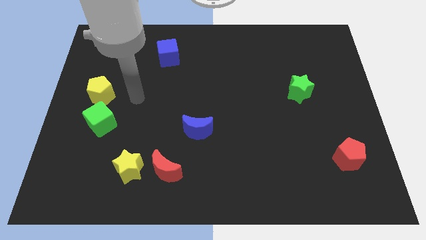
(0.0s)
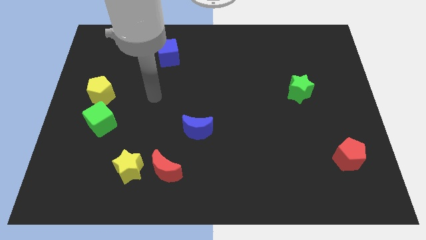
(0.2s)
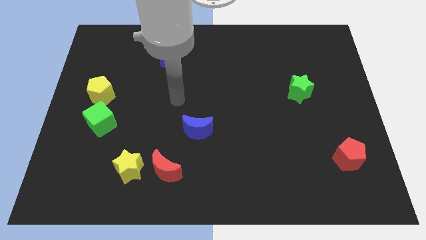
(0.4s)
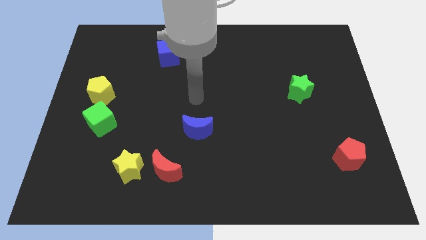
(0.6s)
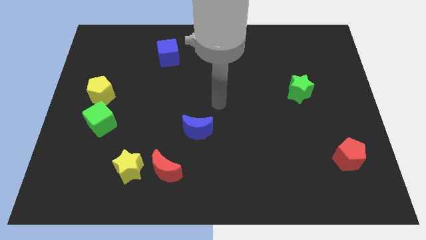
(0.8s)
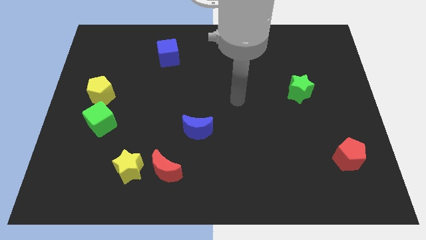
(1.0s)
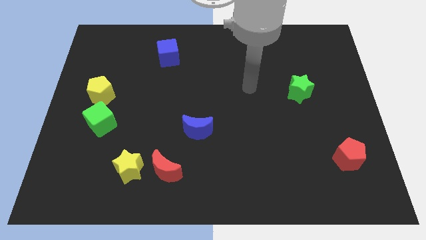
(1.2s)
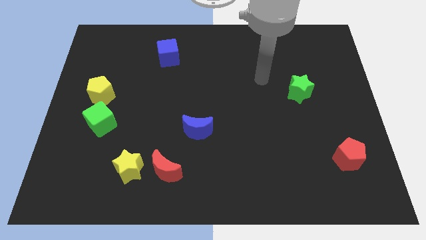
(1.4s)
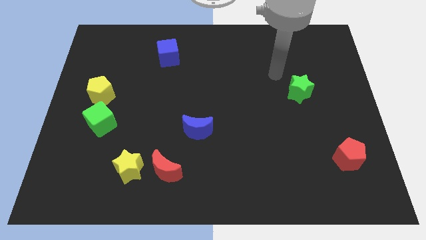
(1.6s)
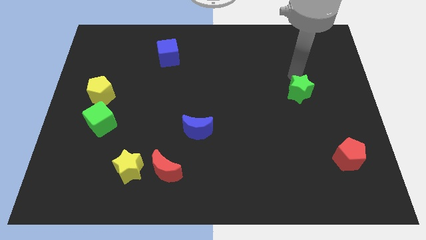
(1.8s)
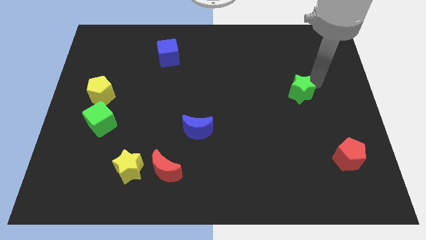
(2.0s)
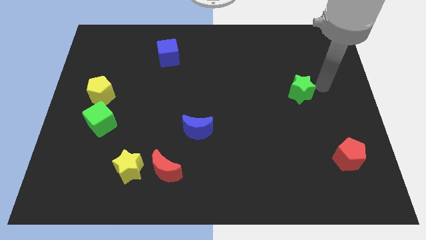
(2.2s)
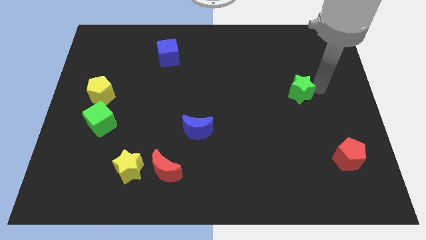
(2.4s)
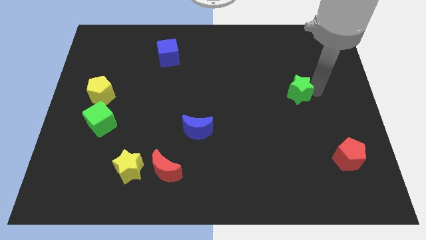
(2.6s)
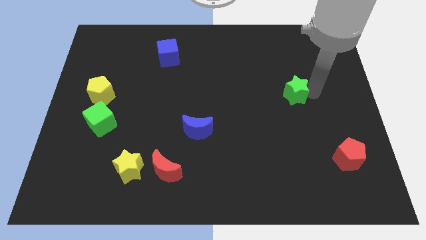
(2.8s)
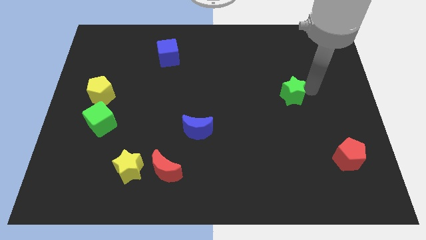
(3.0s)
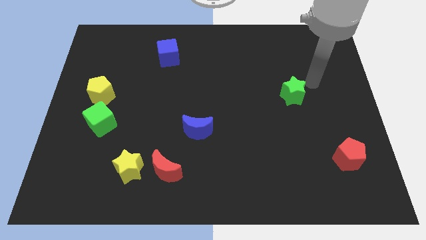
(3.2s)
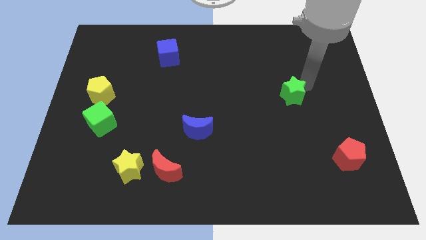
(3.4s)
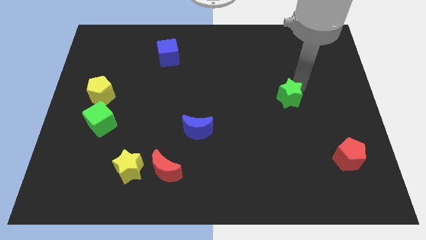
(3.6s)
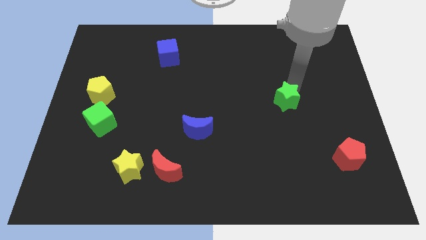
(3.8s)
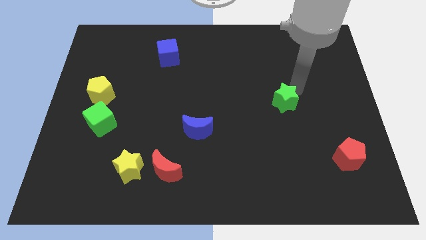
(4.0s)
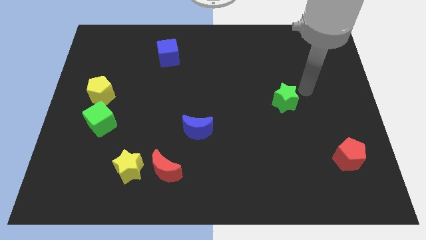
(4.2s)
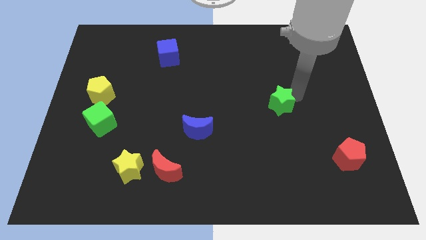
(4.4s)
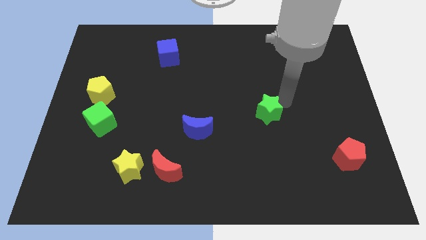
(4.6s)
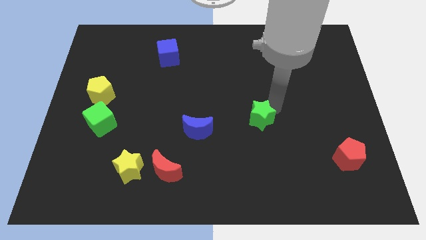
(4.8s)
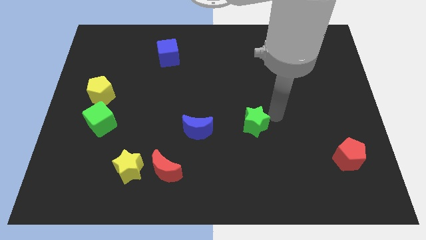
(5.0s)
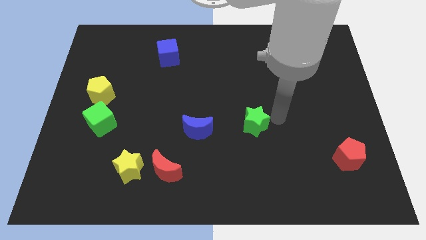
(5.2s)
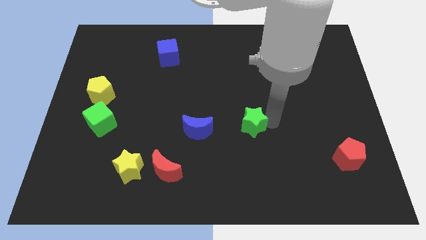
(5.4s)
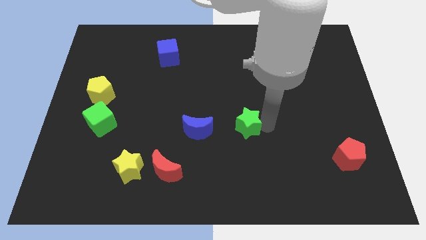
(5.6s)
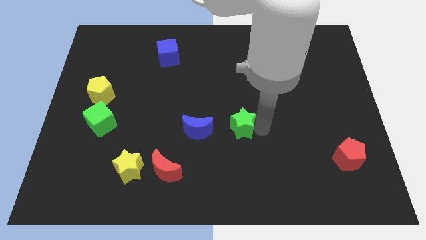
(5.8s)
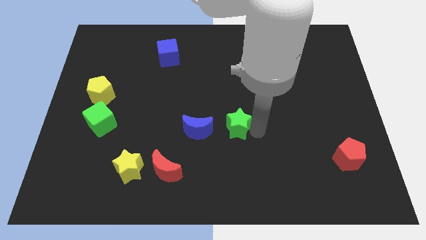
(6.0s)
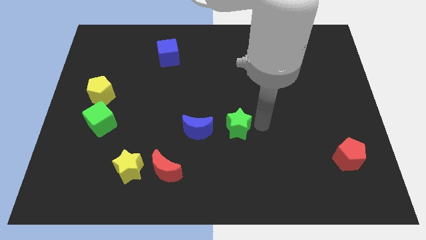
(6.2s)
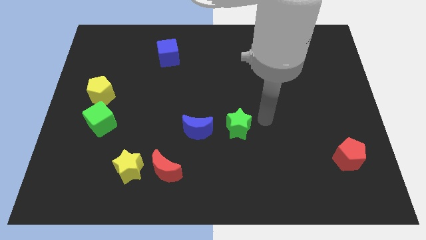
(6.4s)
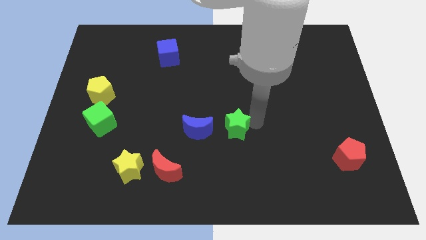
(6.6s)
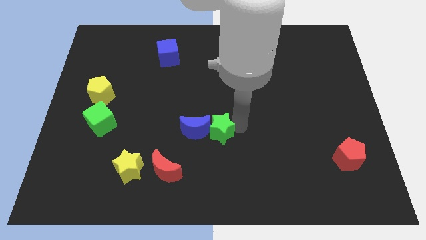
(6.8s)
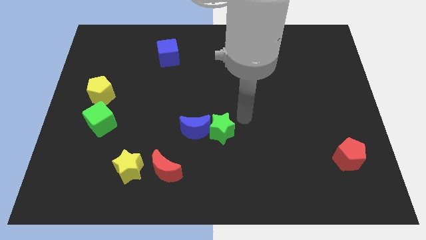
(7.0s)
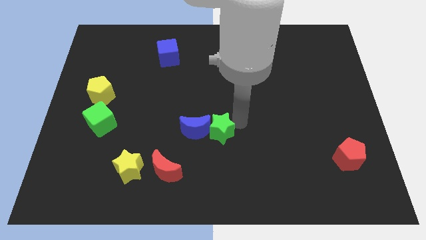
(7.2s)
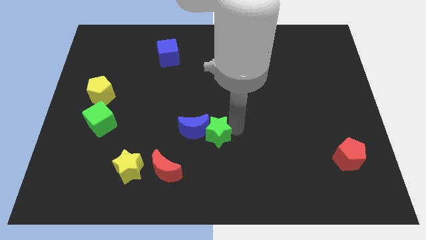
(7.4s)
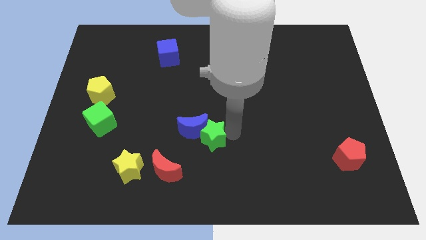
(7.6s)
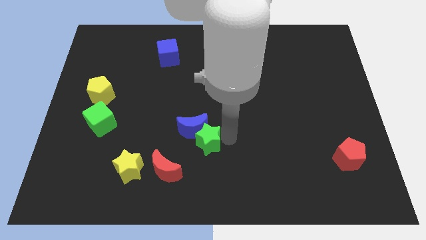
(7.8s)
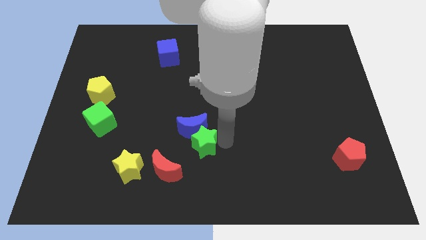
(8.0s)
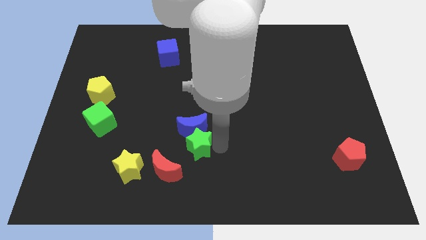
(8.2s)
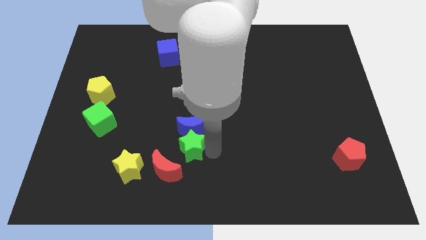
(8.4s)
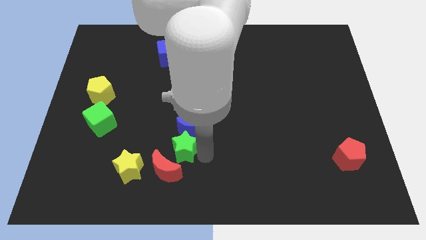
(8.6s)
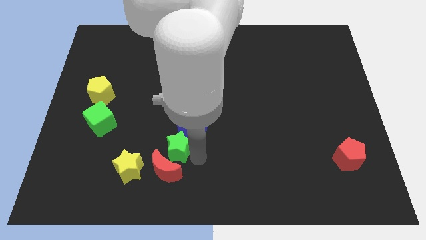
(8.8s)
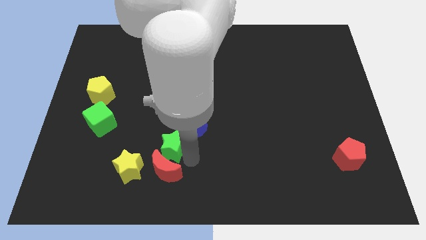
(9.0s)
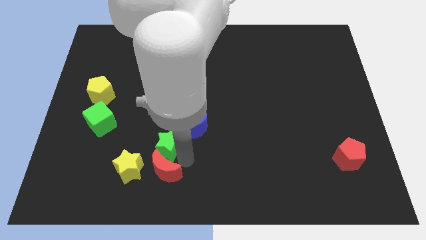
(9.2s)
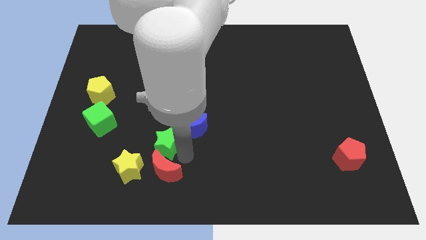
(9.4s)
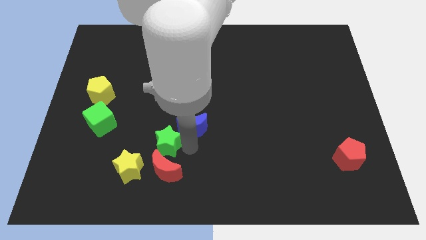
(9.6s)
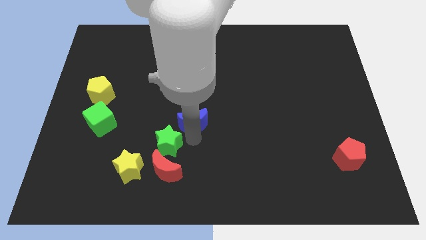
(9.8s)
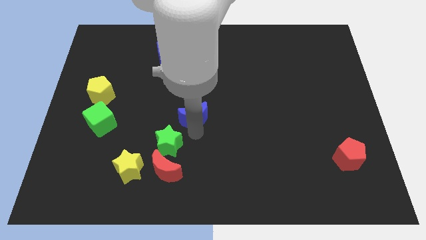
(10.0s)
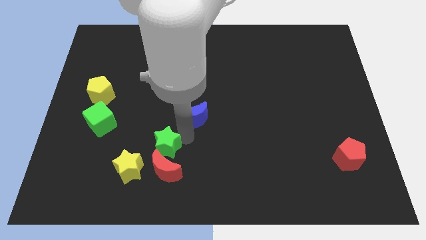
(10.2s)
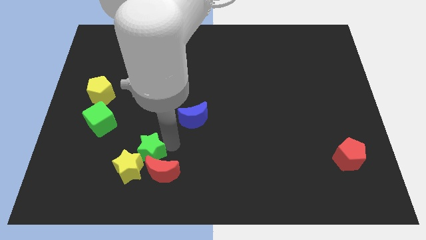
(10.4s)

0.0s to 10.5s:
put the green star close to the yellow star

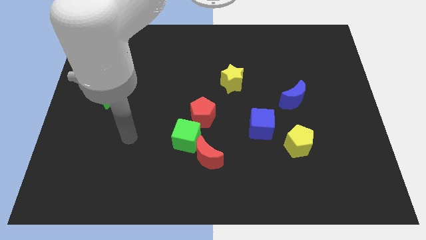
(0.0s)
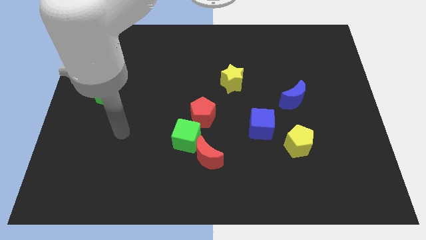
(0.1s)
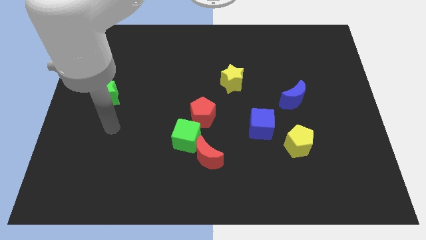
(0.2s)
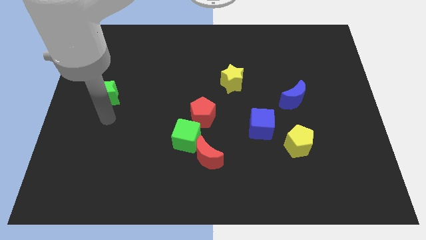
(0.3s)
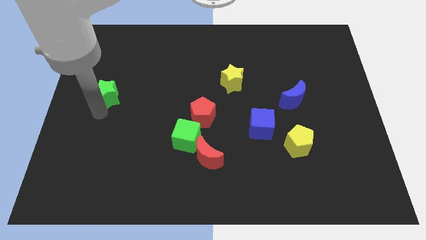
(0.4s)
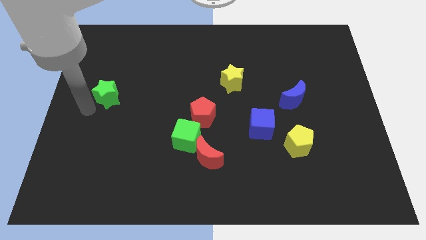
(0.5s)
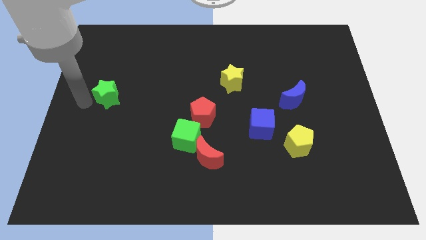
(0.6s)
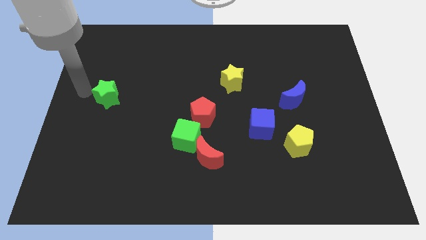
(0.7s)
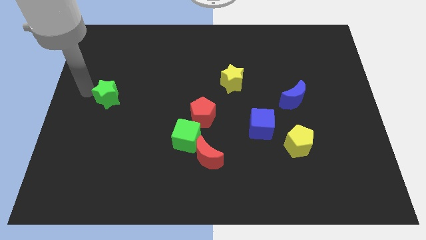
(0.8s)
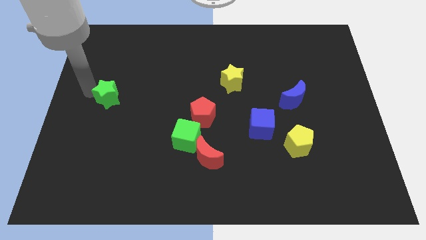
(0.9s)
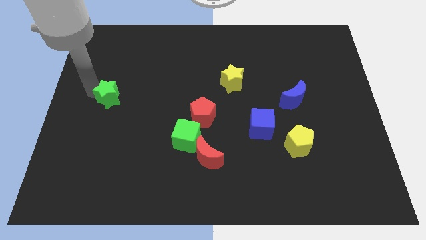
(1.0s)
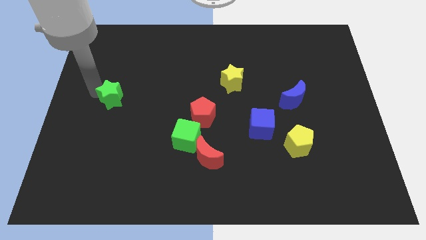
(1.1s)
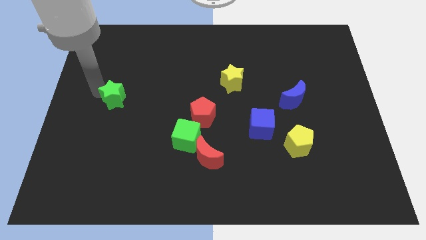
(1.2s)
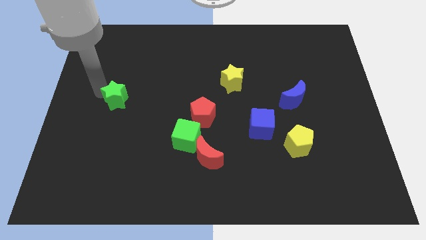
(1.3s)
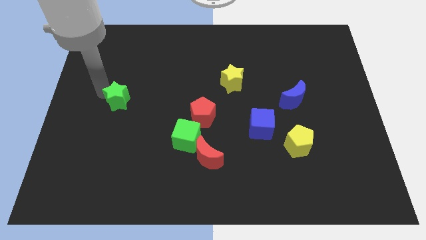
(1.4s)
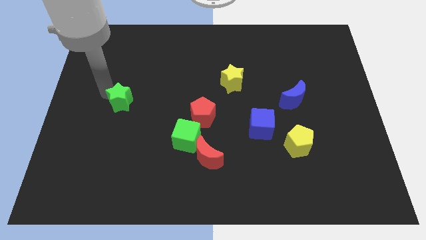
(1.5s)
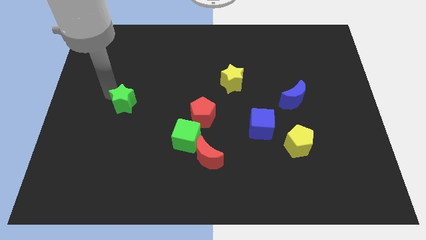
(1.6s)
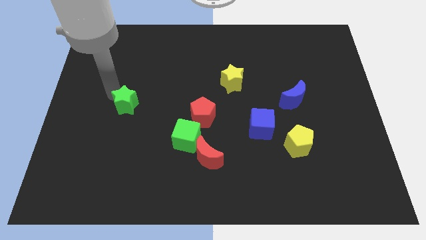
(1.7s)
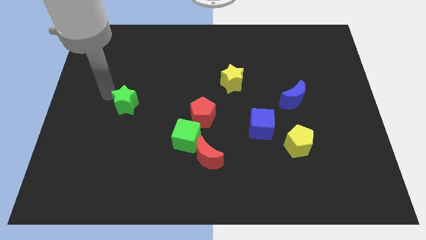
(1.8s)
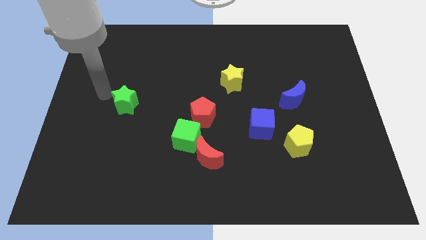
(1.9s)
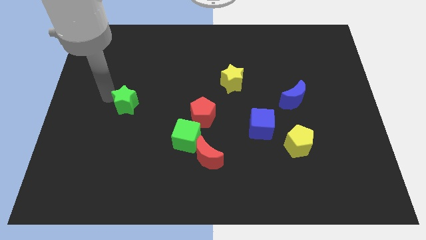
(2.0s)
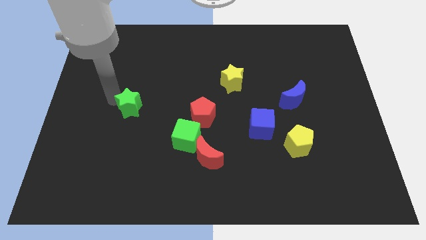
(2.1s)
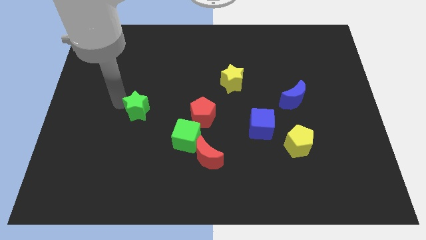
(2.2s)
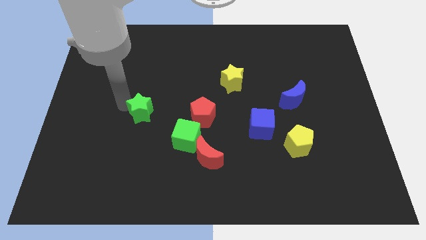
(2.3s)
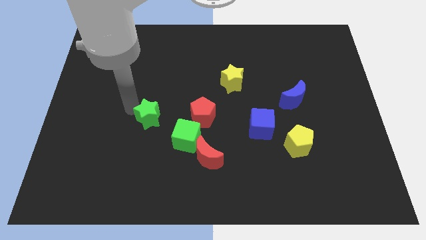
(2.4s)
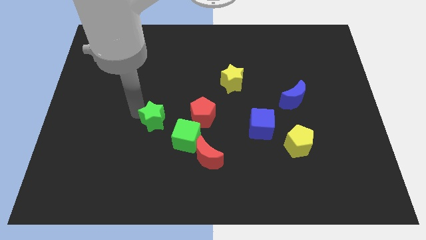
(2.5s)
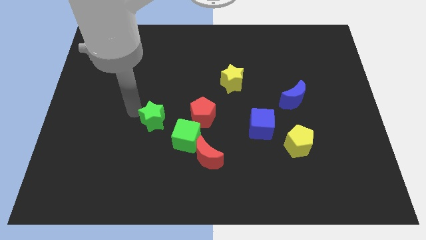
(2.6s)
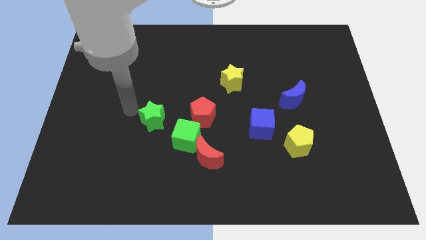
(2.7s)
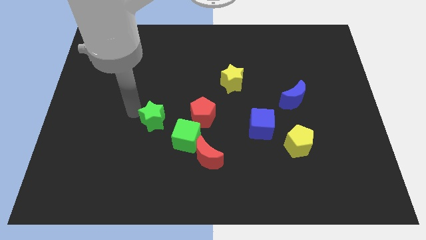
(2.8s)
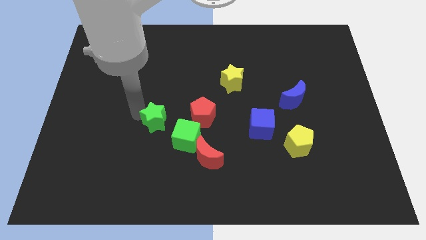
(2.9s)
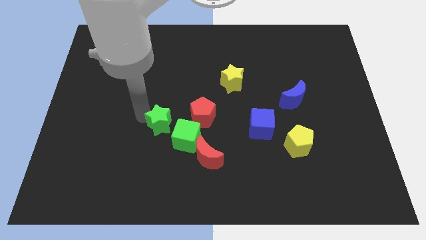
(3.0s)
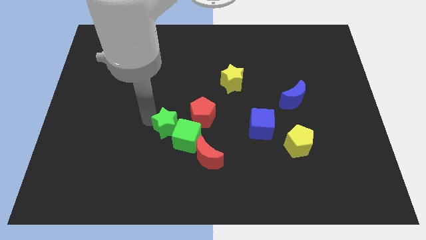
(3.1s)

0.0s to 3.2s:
put the green star next to the green cube
